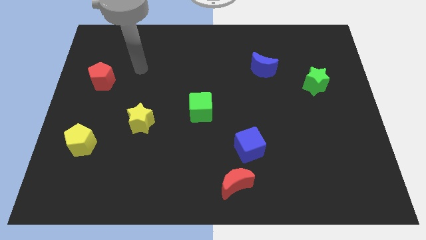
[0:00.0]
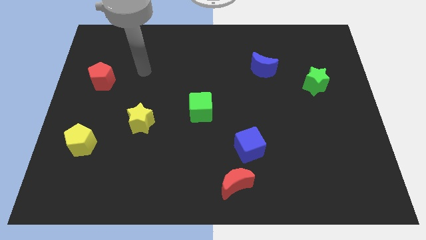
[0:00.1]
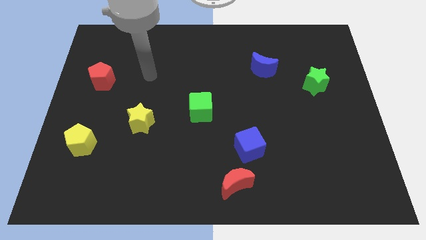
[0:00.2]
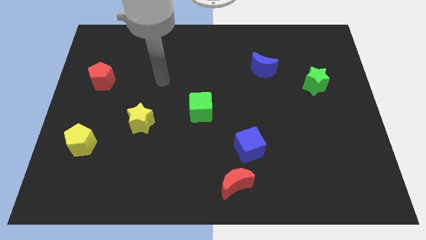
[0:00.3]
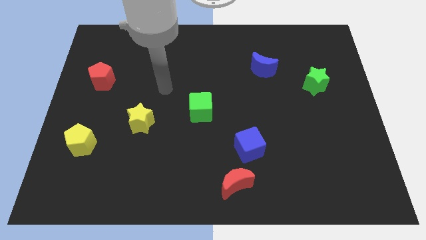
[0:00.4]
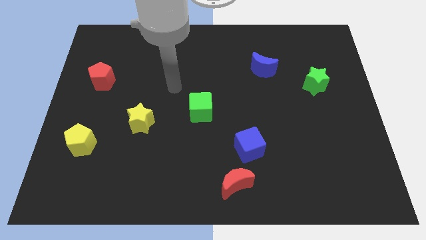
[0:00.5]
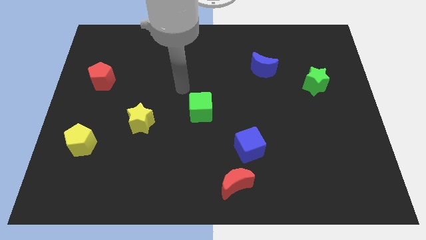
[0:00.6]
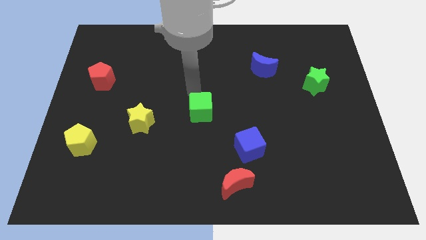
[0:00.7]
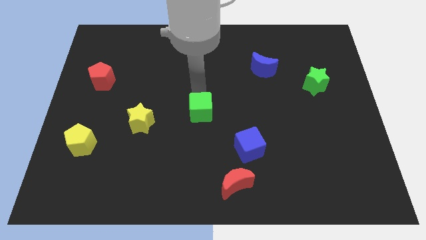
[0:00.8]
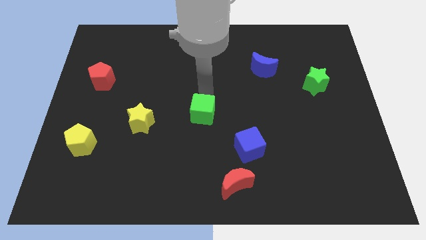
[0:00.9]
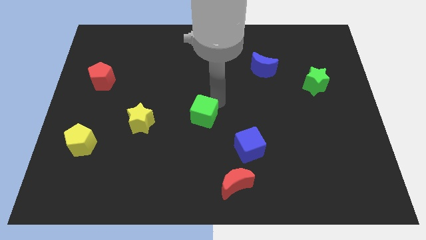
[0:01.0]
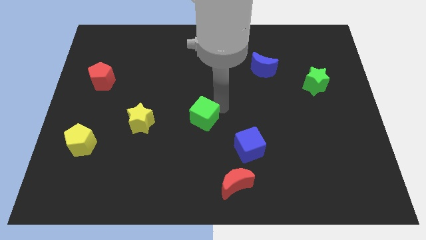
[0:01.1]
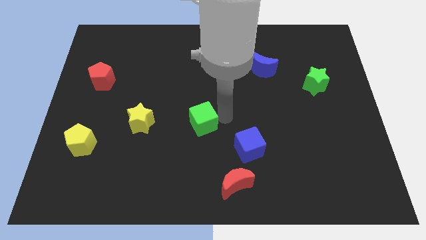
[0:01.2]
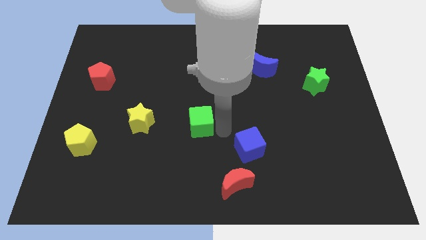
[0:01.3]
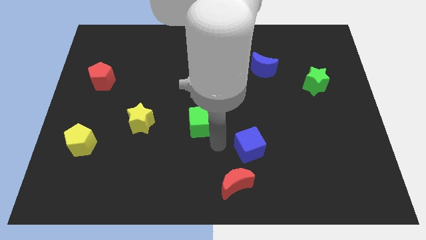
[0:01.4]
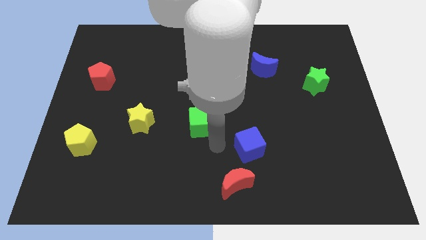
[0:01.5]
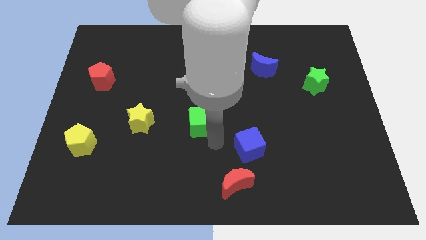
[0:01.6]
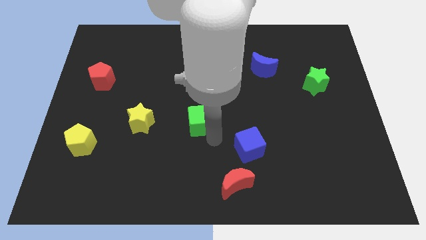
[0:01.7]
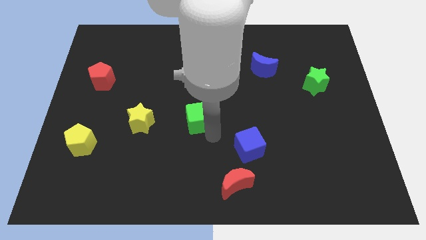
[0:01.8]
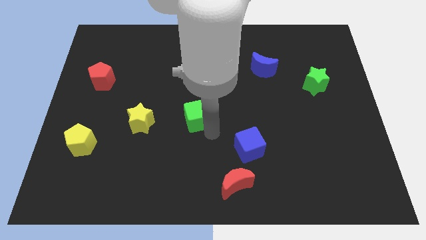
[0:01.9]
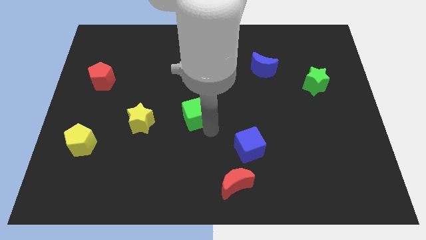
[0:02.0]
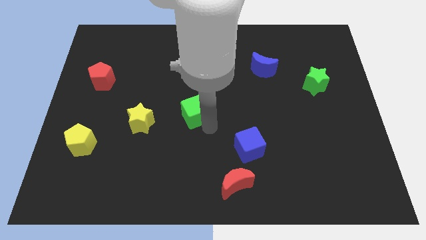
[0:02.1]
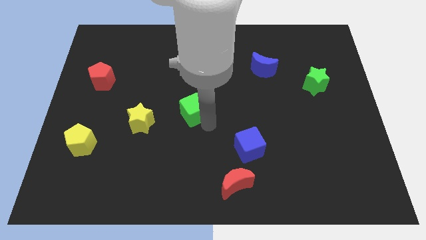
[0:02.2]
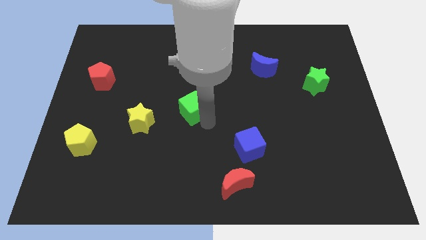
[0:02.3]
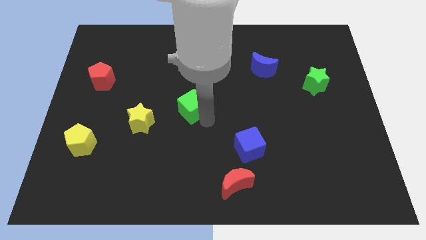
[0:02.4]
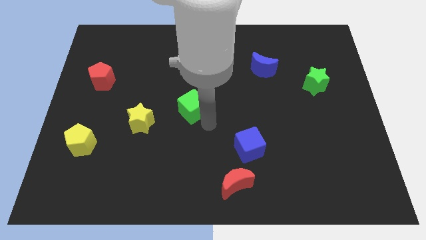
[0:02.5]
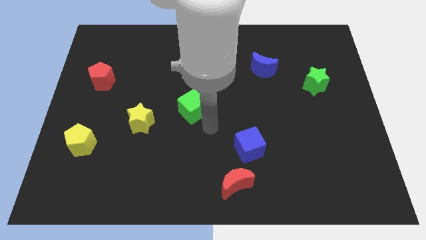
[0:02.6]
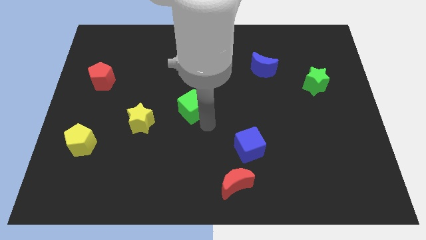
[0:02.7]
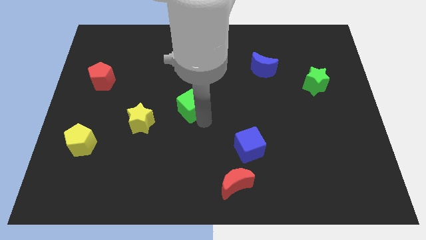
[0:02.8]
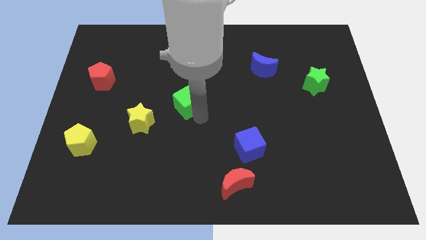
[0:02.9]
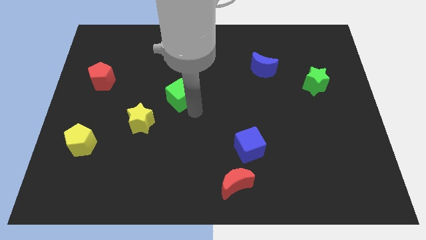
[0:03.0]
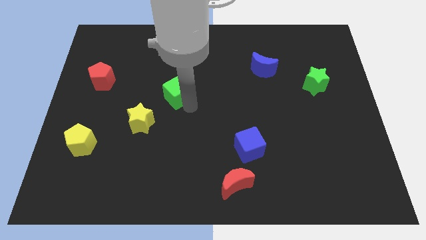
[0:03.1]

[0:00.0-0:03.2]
move the green cube a little up and to the left diagonally

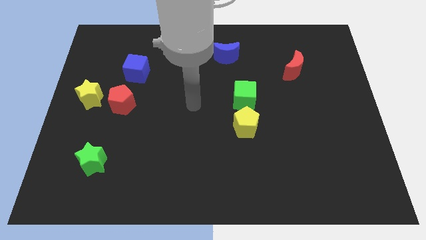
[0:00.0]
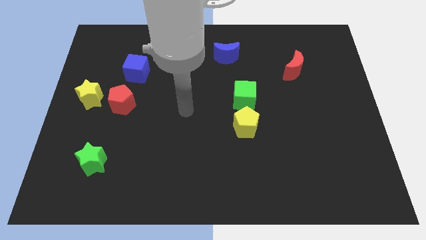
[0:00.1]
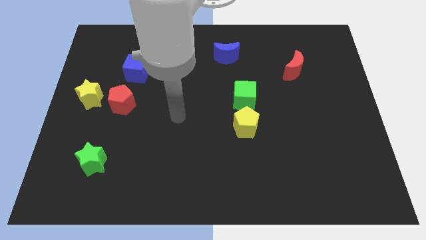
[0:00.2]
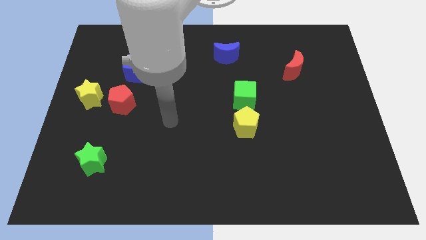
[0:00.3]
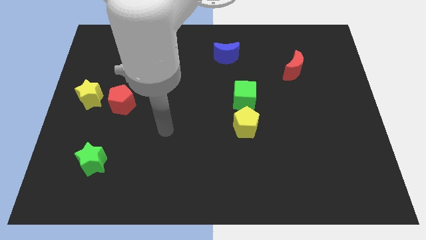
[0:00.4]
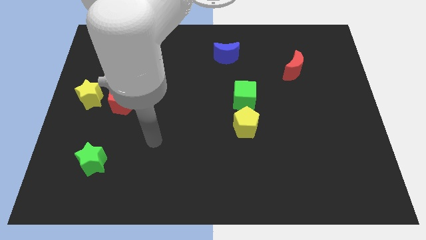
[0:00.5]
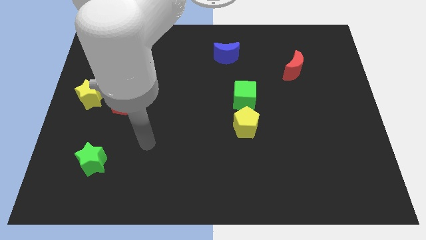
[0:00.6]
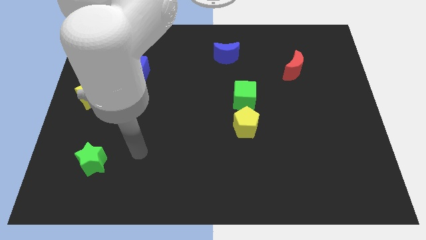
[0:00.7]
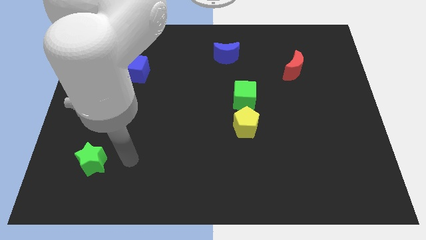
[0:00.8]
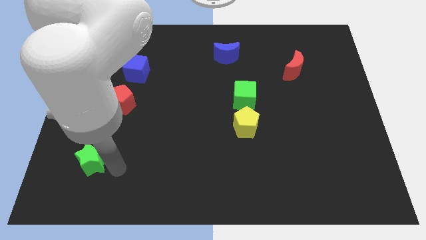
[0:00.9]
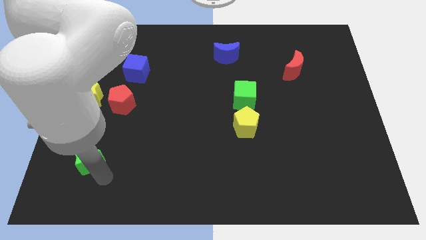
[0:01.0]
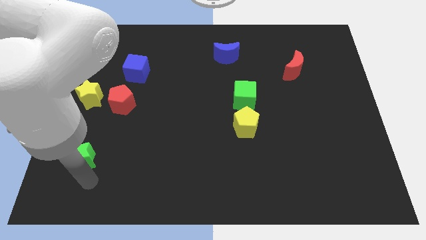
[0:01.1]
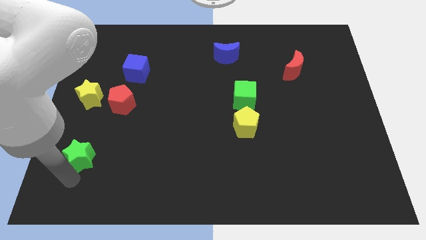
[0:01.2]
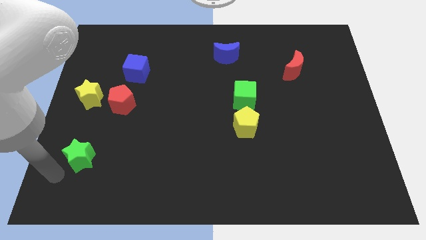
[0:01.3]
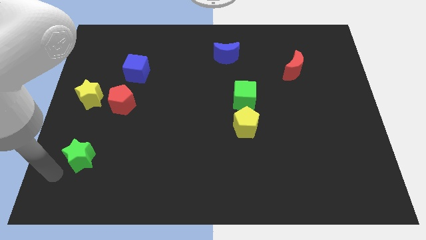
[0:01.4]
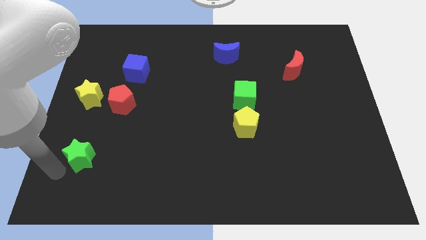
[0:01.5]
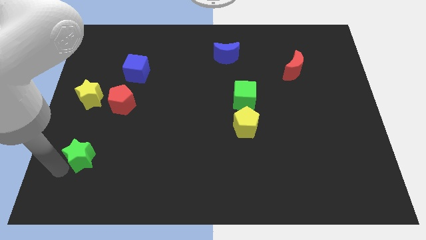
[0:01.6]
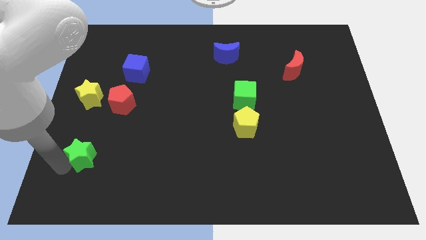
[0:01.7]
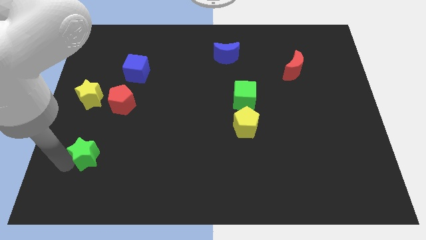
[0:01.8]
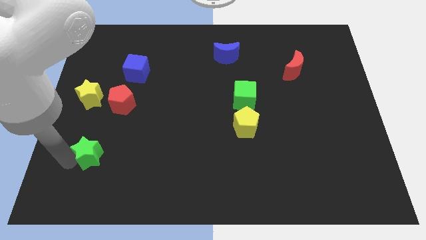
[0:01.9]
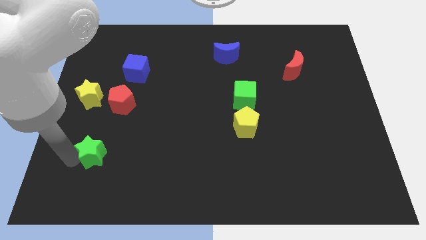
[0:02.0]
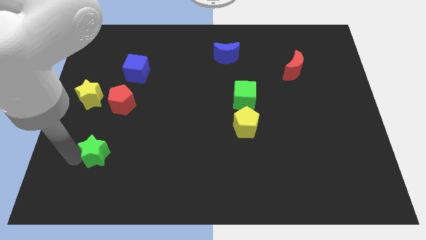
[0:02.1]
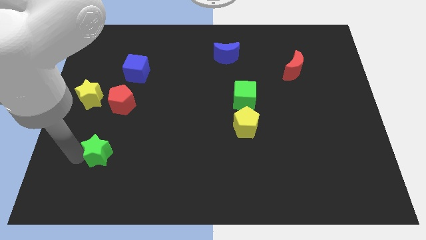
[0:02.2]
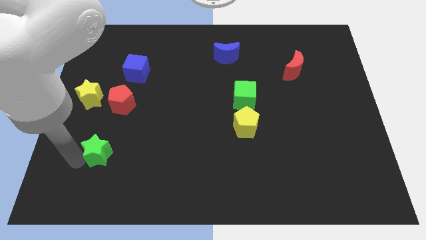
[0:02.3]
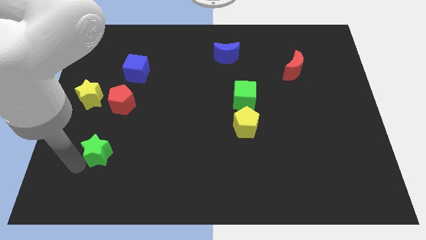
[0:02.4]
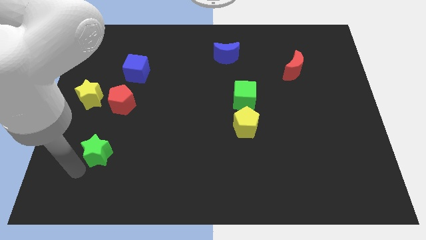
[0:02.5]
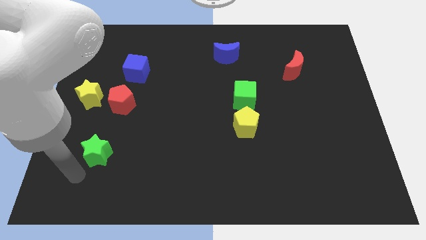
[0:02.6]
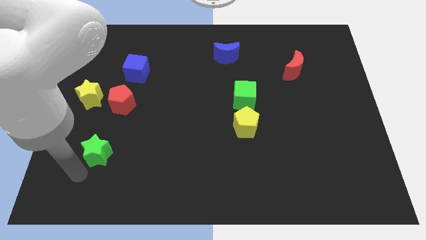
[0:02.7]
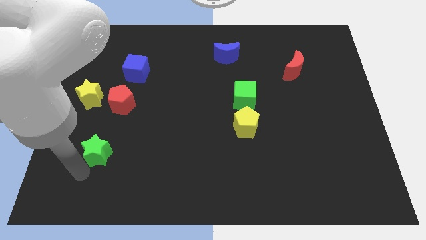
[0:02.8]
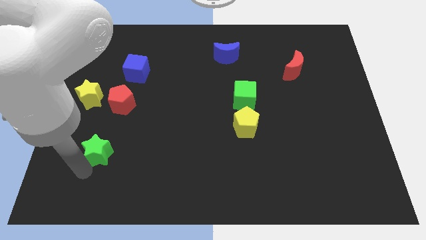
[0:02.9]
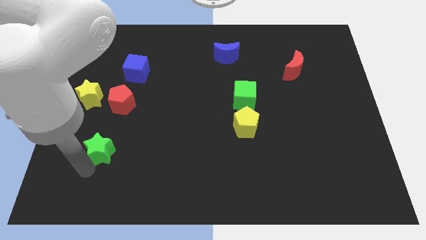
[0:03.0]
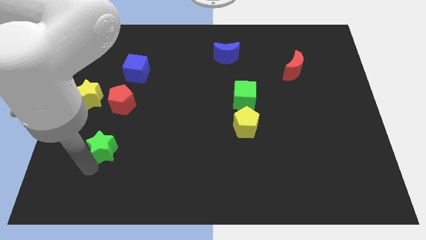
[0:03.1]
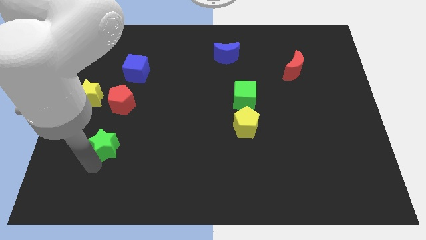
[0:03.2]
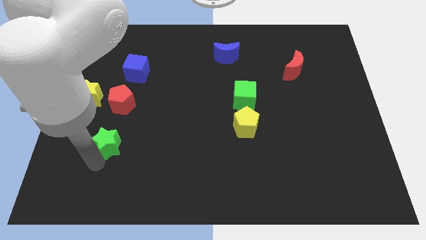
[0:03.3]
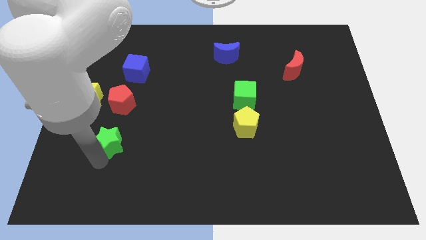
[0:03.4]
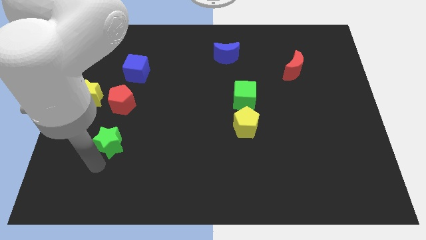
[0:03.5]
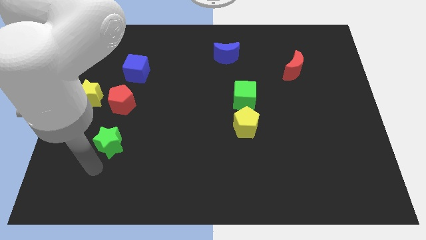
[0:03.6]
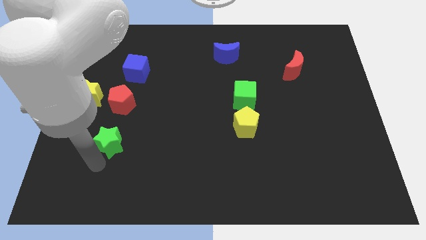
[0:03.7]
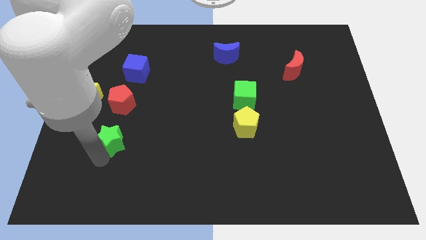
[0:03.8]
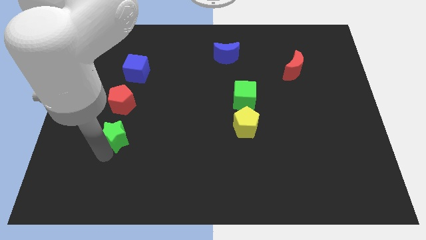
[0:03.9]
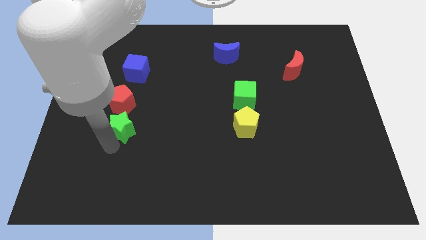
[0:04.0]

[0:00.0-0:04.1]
move the green star up slightly

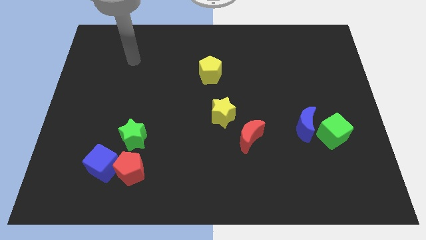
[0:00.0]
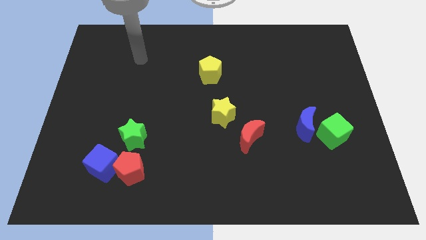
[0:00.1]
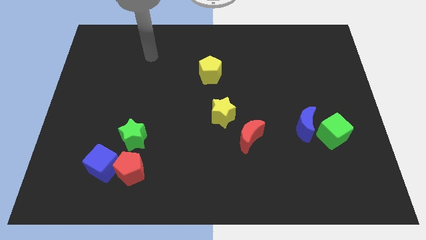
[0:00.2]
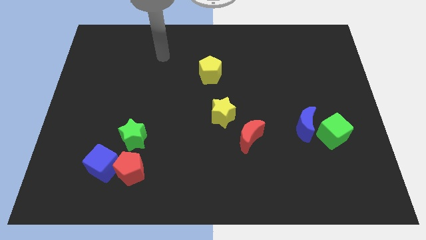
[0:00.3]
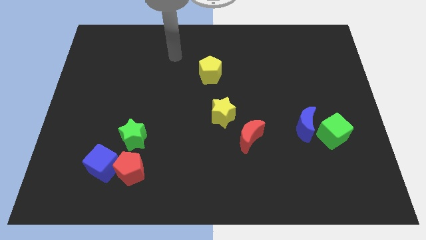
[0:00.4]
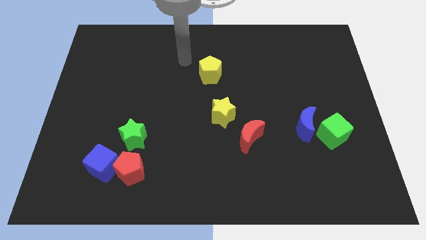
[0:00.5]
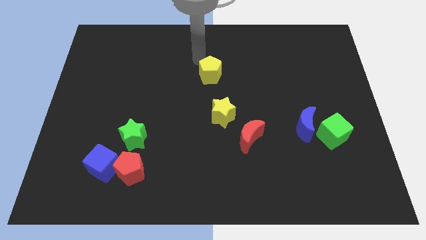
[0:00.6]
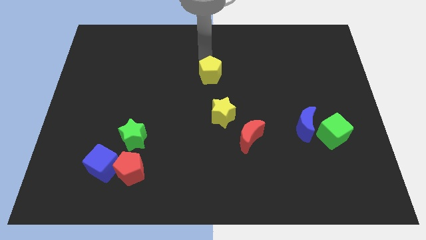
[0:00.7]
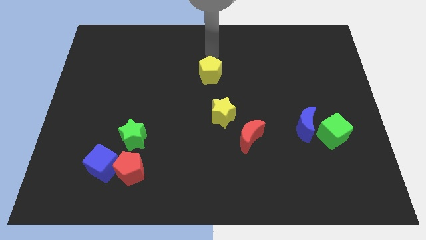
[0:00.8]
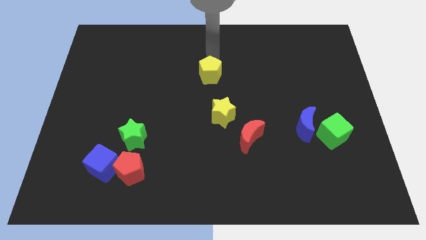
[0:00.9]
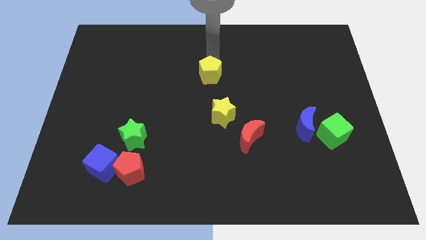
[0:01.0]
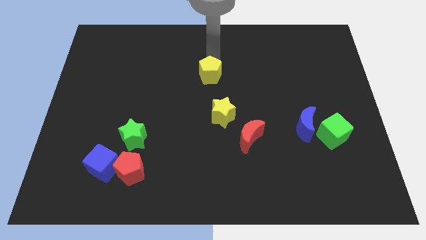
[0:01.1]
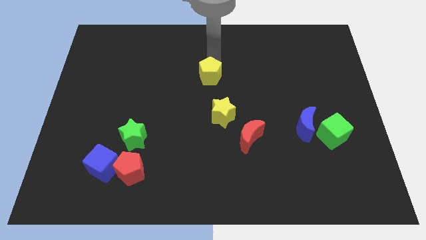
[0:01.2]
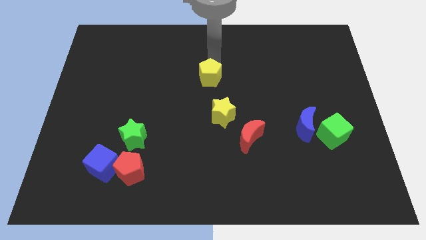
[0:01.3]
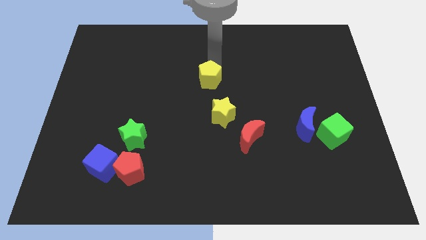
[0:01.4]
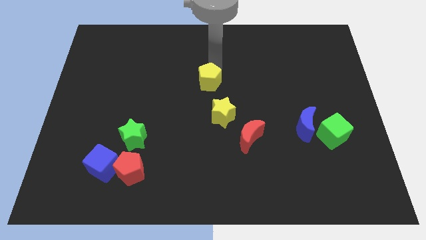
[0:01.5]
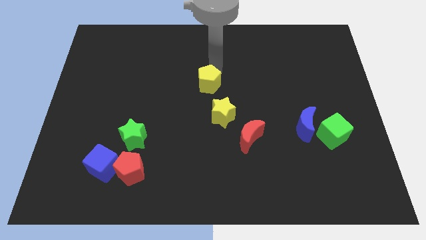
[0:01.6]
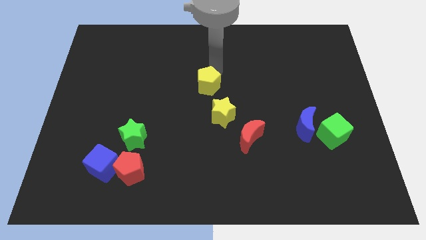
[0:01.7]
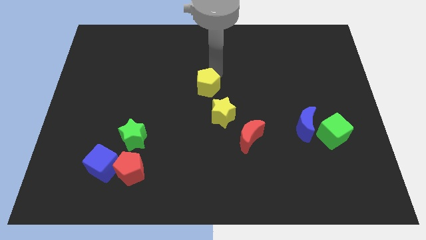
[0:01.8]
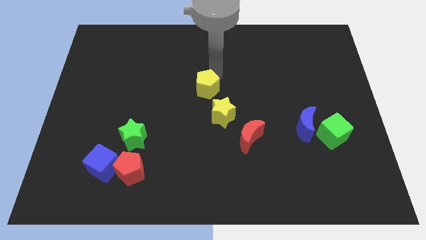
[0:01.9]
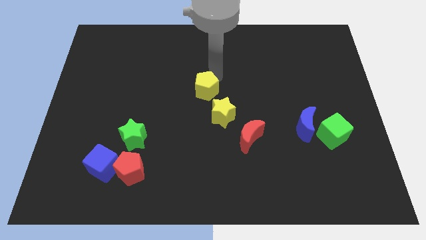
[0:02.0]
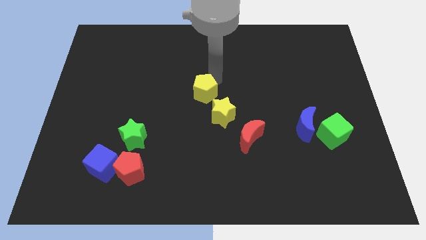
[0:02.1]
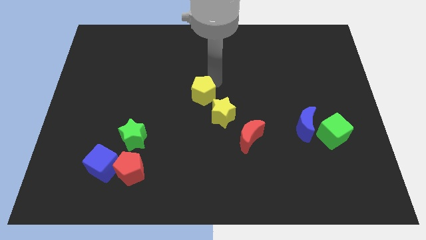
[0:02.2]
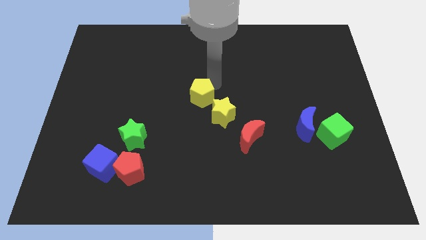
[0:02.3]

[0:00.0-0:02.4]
slide the yellow pentagon a bit downwards
